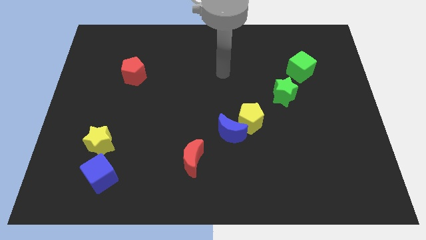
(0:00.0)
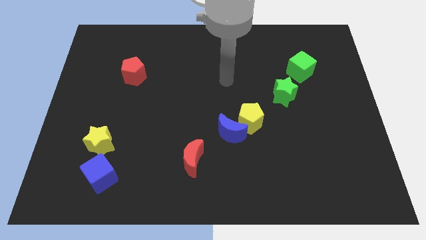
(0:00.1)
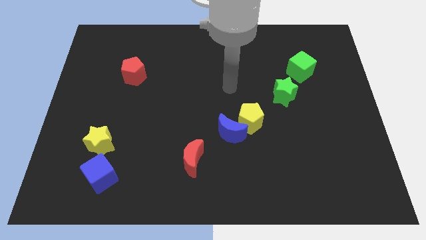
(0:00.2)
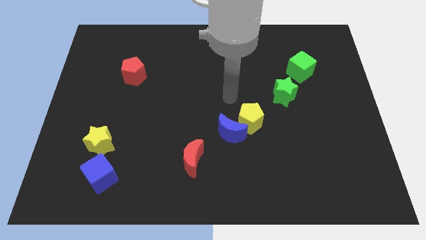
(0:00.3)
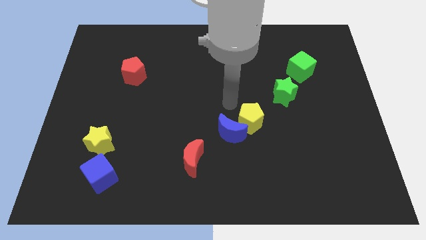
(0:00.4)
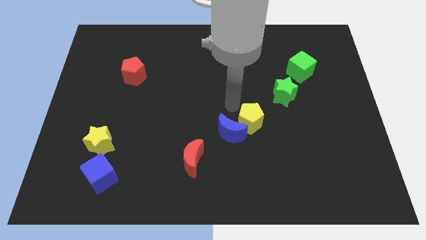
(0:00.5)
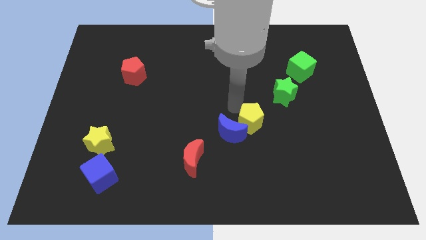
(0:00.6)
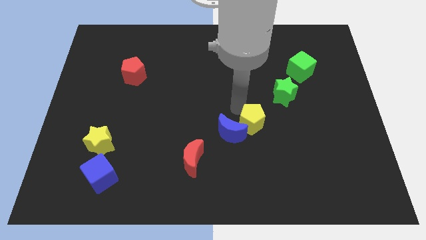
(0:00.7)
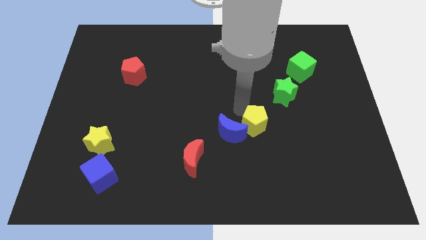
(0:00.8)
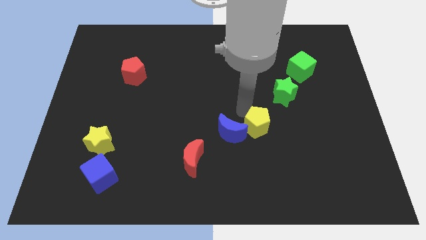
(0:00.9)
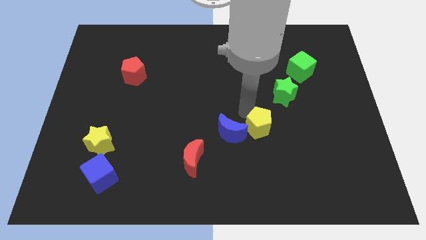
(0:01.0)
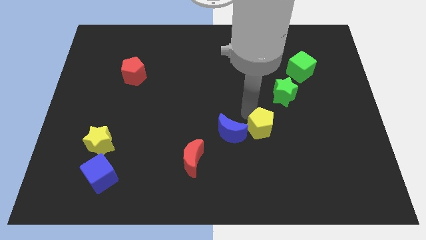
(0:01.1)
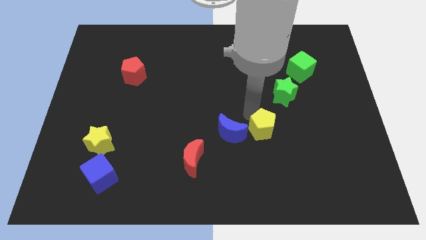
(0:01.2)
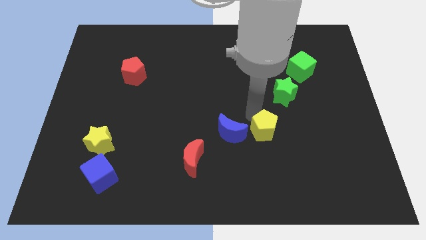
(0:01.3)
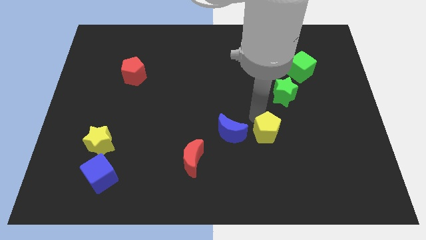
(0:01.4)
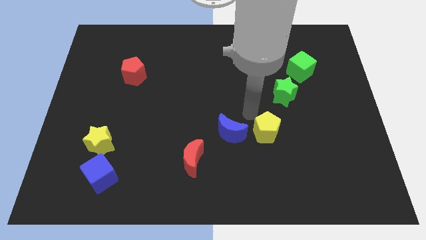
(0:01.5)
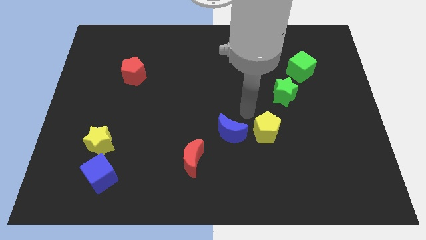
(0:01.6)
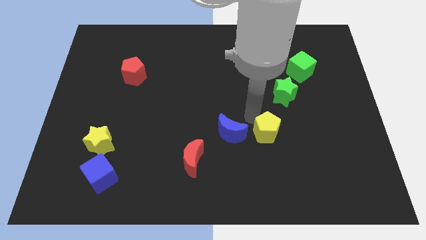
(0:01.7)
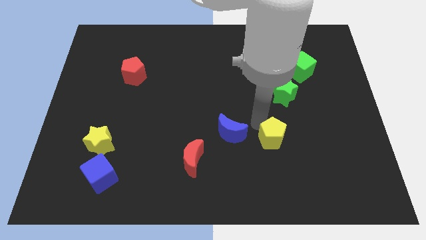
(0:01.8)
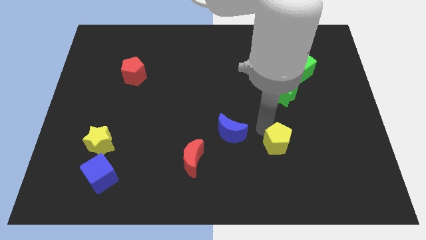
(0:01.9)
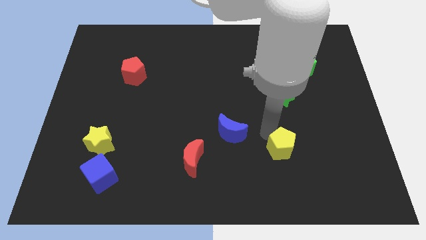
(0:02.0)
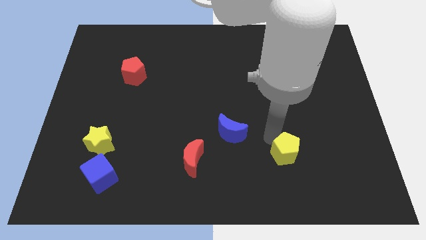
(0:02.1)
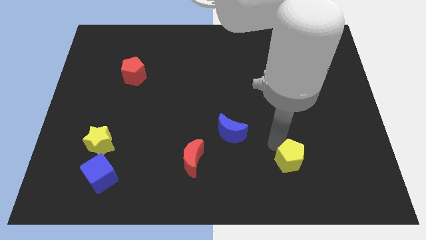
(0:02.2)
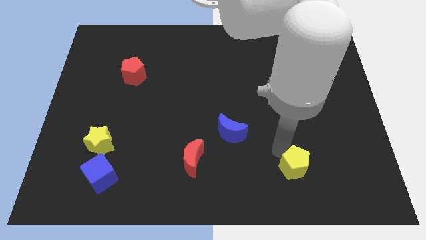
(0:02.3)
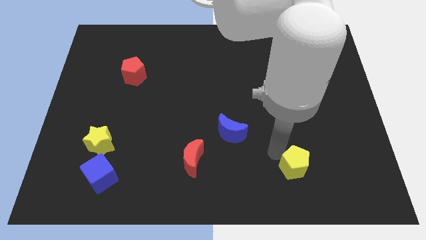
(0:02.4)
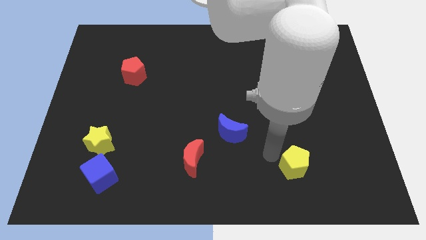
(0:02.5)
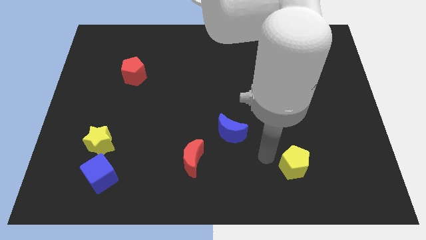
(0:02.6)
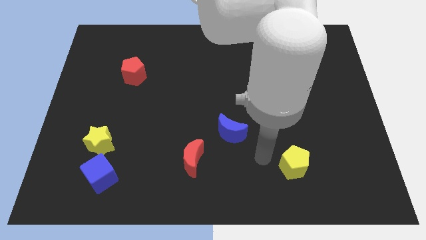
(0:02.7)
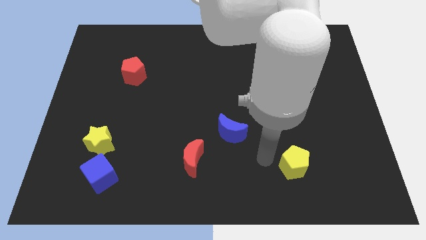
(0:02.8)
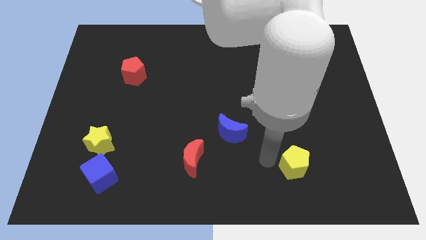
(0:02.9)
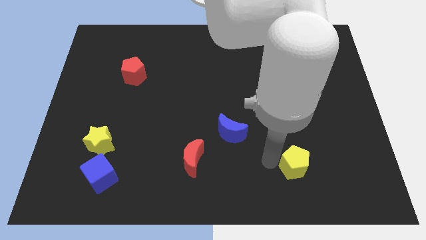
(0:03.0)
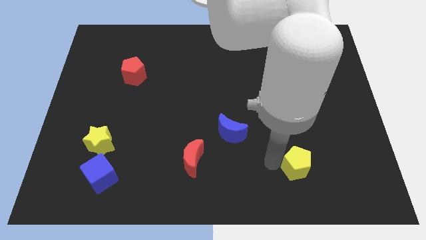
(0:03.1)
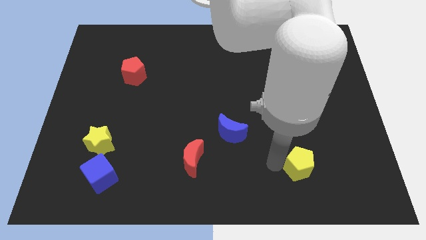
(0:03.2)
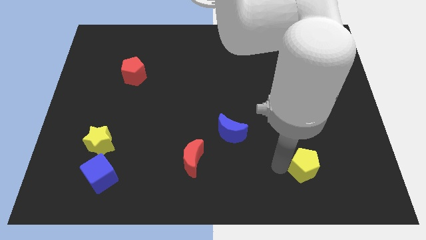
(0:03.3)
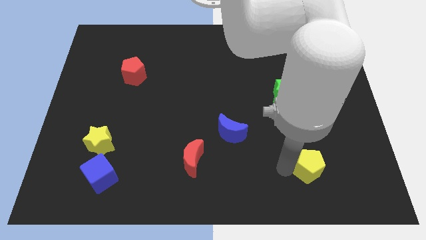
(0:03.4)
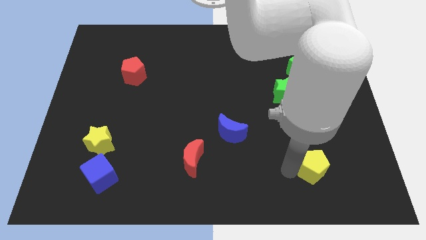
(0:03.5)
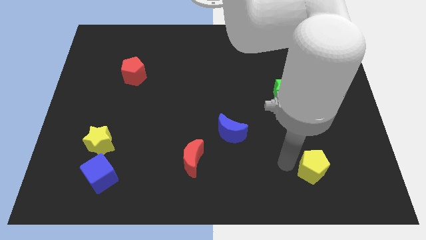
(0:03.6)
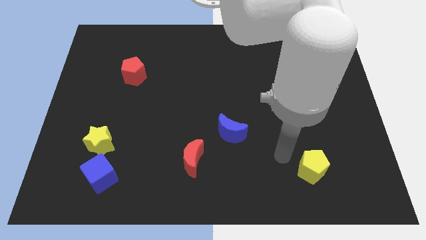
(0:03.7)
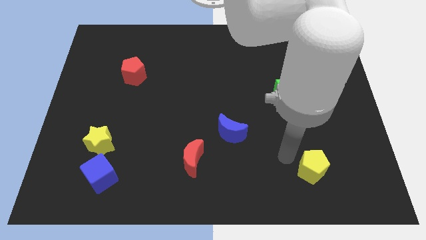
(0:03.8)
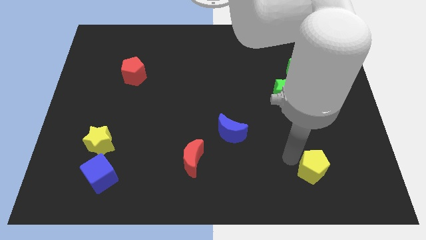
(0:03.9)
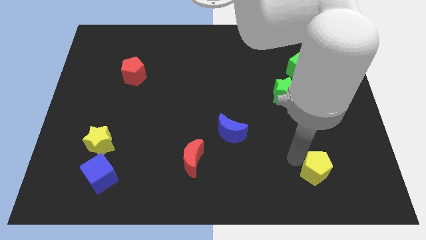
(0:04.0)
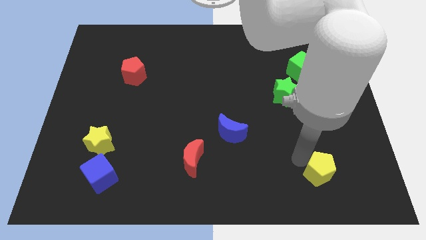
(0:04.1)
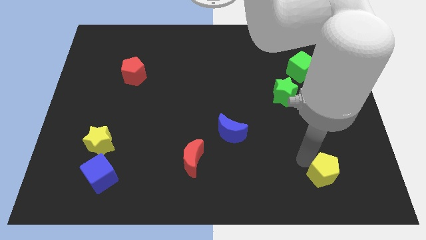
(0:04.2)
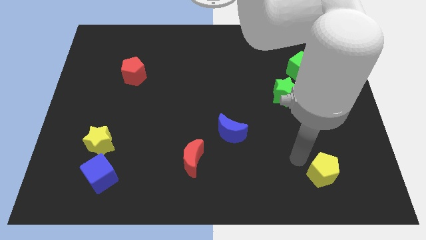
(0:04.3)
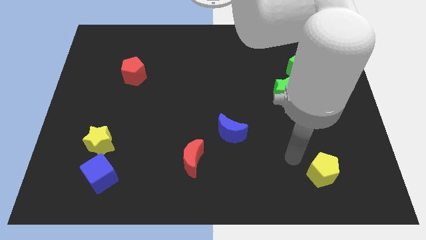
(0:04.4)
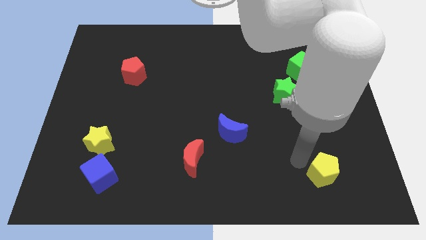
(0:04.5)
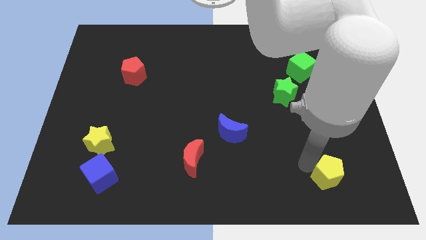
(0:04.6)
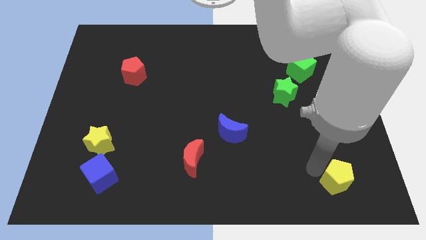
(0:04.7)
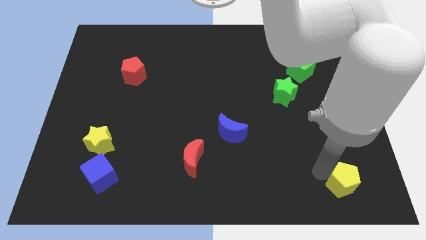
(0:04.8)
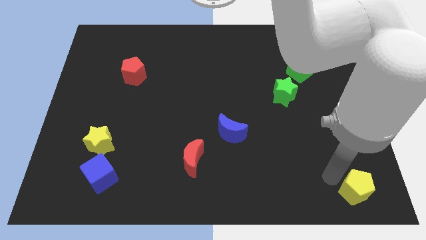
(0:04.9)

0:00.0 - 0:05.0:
push the yellow pentagon to the bottom right

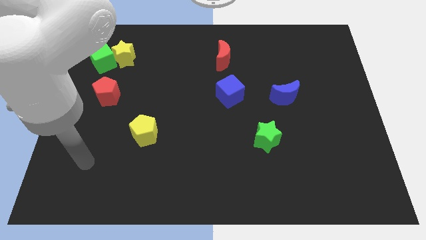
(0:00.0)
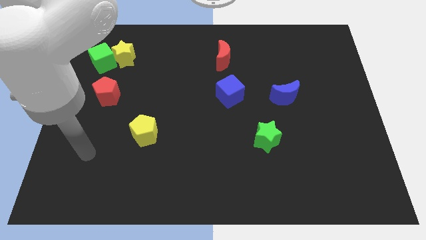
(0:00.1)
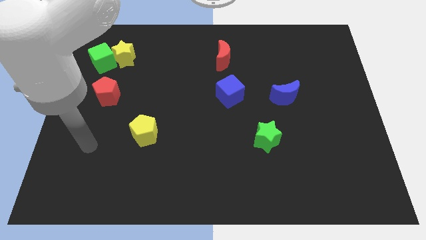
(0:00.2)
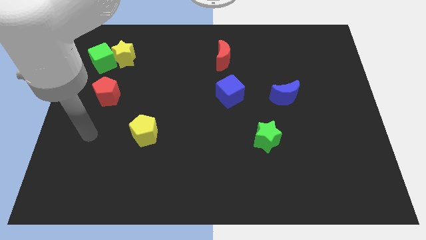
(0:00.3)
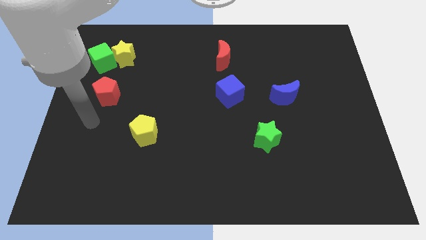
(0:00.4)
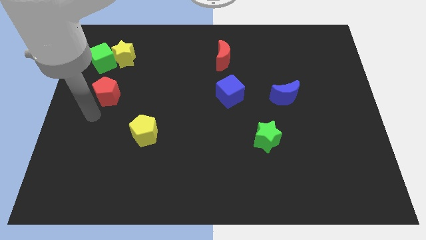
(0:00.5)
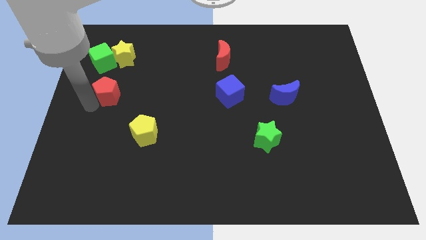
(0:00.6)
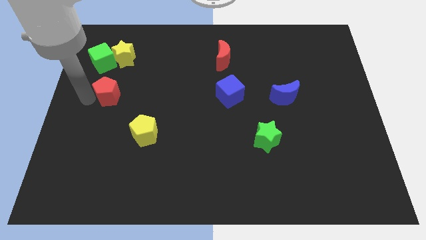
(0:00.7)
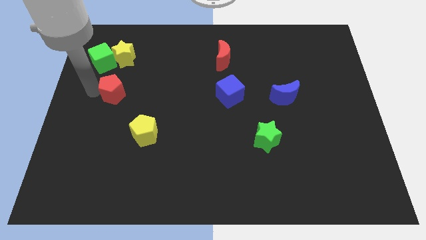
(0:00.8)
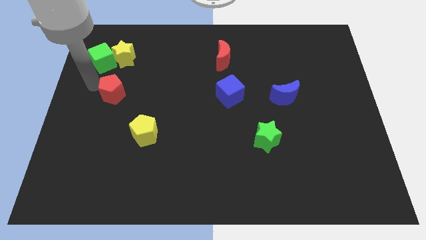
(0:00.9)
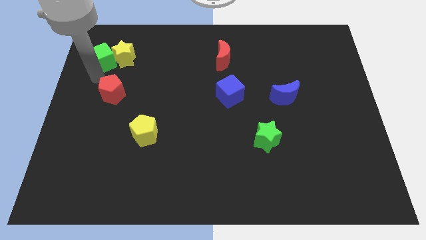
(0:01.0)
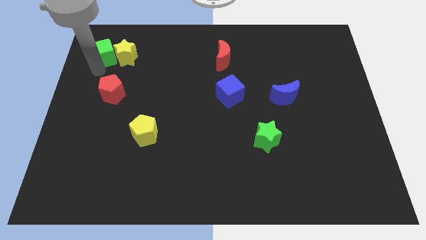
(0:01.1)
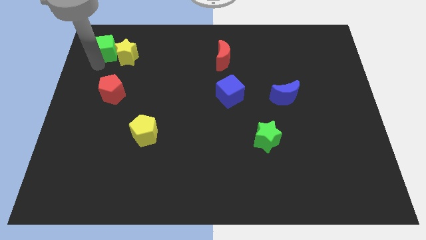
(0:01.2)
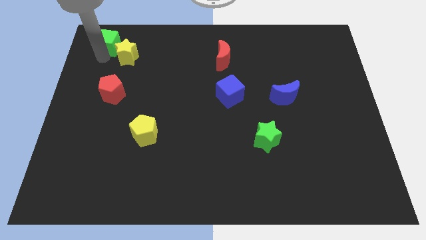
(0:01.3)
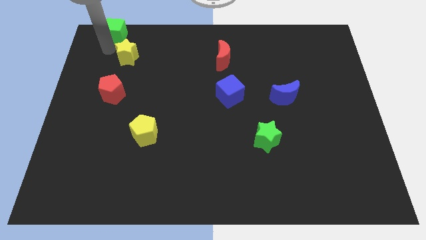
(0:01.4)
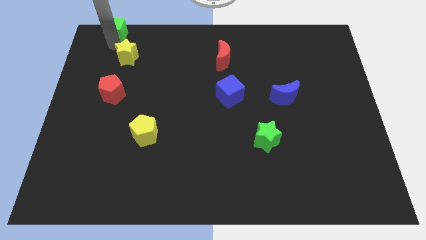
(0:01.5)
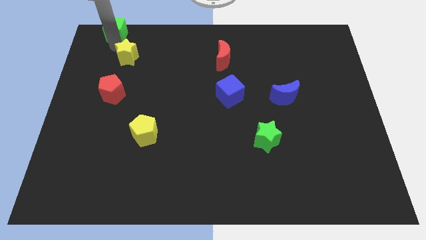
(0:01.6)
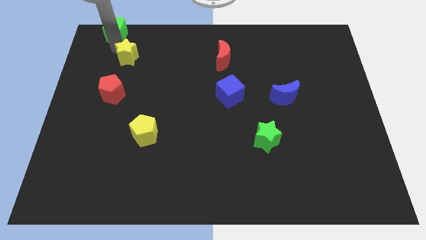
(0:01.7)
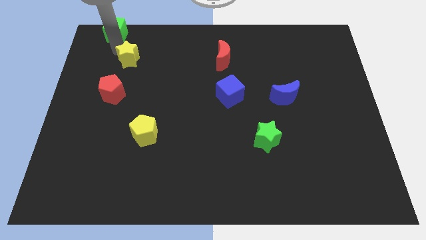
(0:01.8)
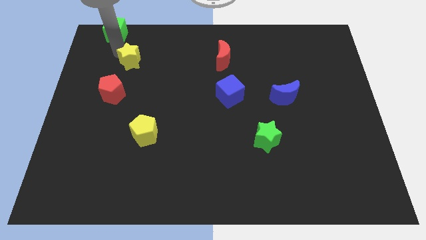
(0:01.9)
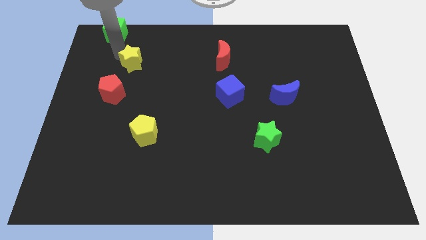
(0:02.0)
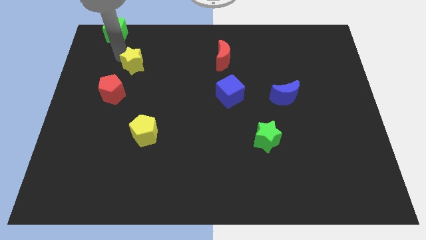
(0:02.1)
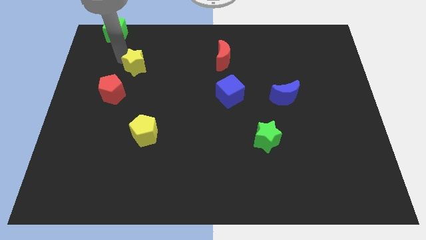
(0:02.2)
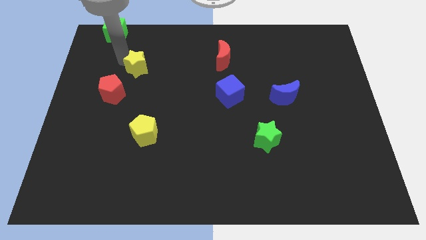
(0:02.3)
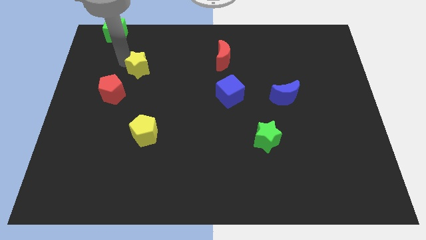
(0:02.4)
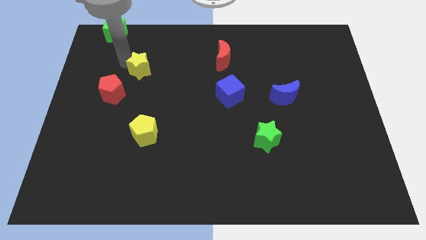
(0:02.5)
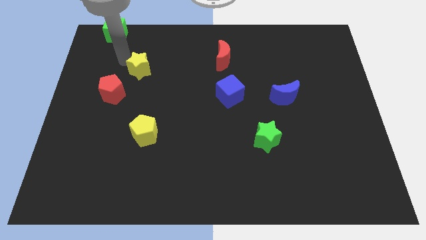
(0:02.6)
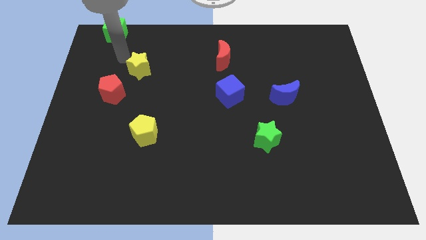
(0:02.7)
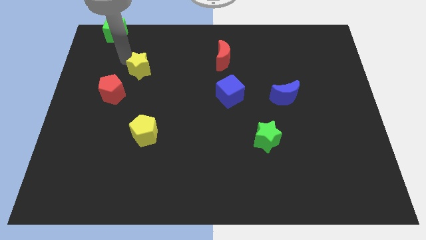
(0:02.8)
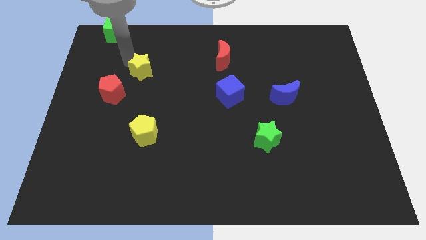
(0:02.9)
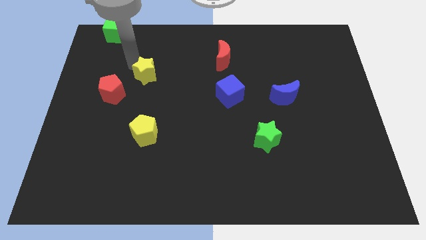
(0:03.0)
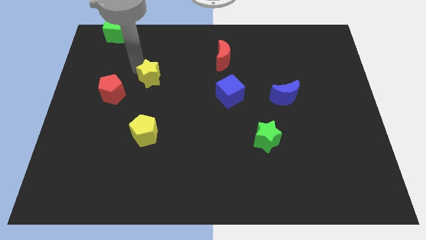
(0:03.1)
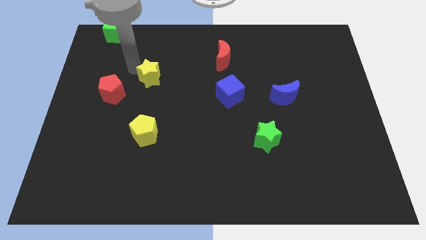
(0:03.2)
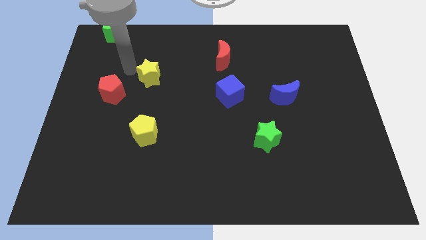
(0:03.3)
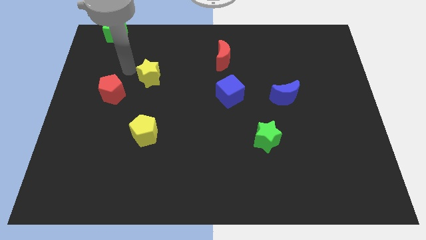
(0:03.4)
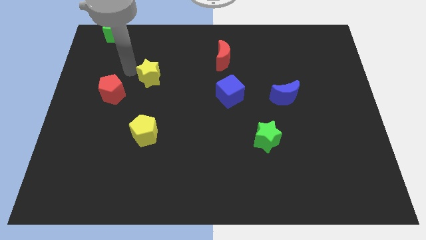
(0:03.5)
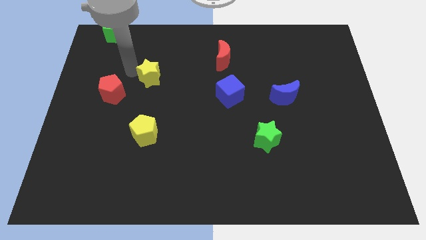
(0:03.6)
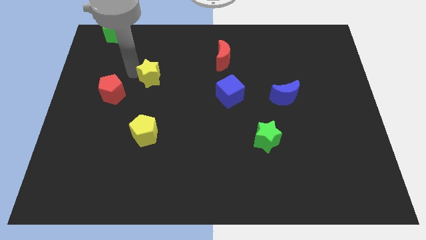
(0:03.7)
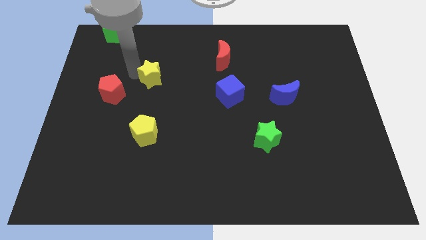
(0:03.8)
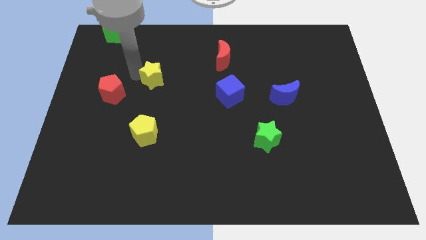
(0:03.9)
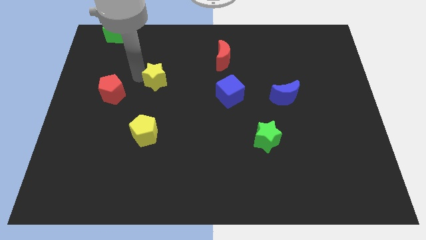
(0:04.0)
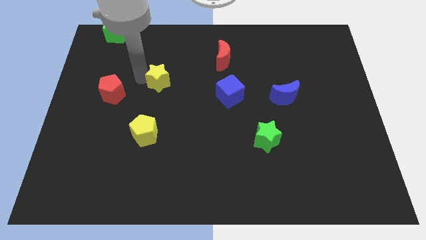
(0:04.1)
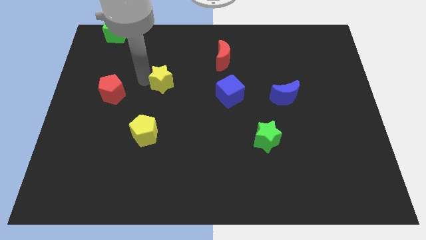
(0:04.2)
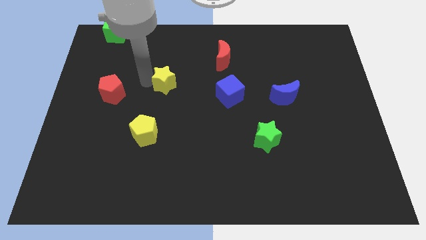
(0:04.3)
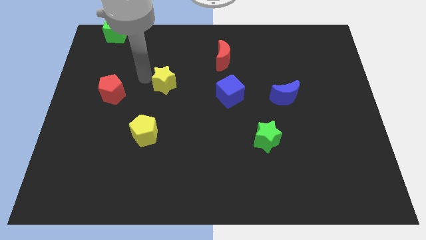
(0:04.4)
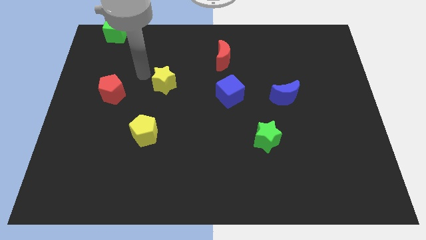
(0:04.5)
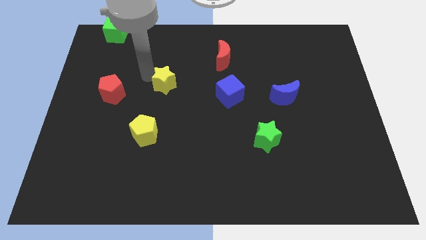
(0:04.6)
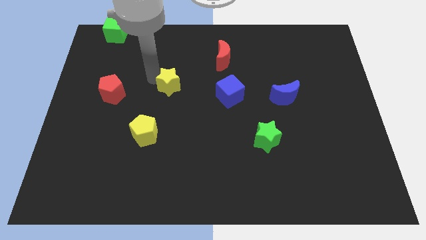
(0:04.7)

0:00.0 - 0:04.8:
move the yellow star to the center
